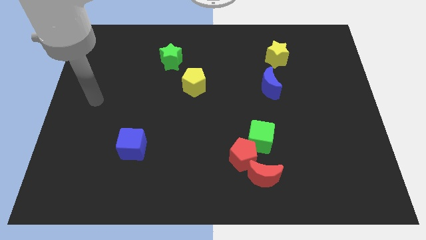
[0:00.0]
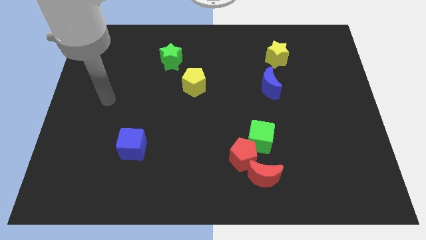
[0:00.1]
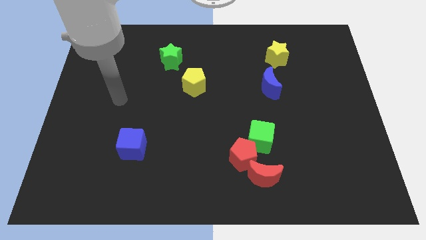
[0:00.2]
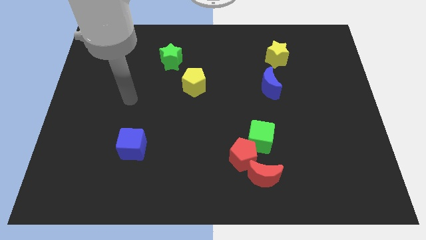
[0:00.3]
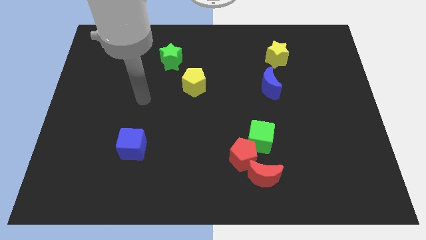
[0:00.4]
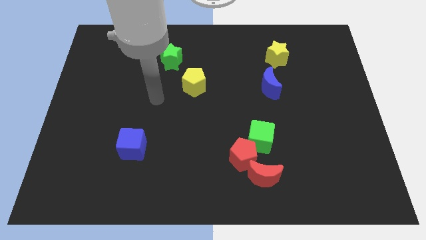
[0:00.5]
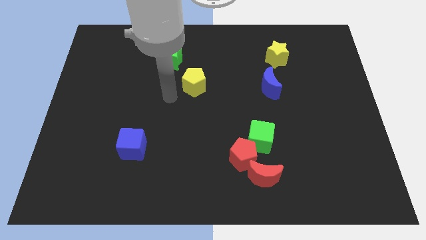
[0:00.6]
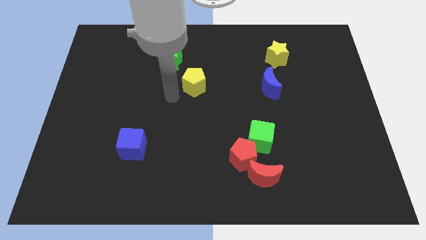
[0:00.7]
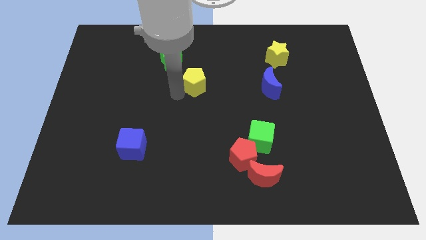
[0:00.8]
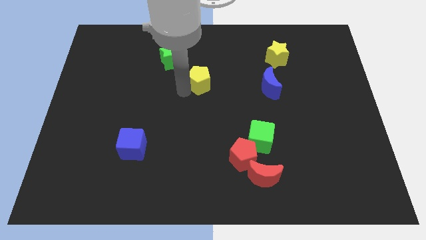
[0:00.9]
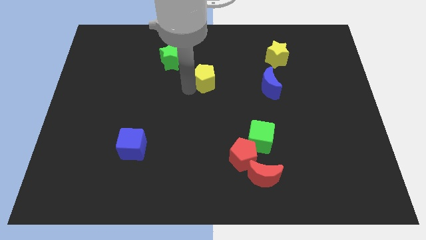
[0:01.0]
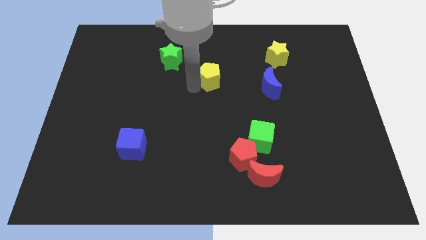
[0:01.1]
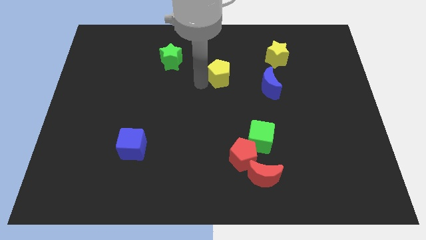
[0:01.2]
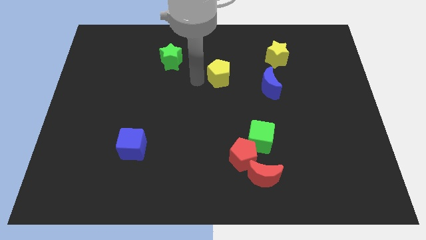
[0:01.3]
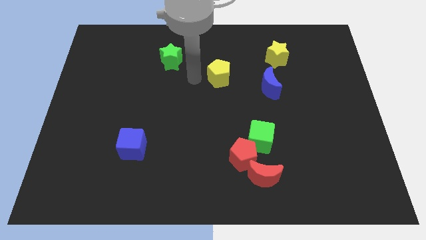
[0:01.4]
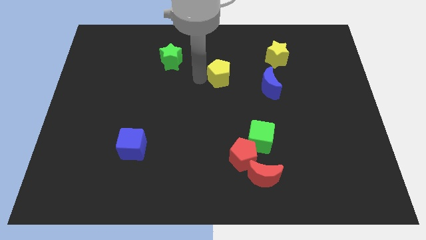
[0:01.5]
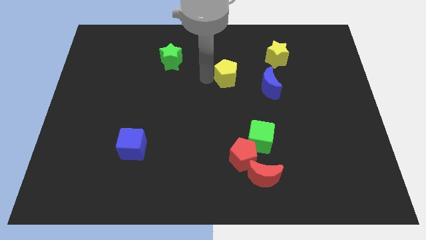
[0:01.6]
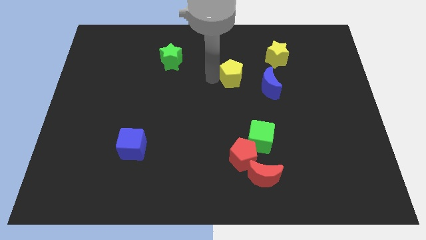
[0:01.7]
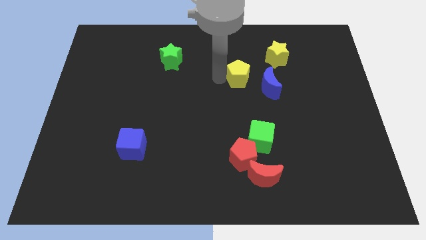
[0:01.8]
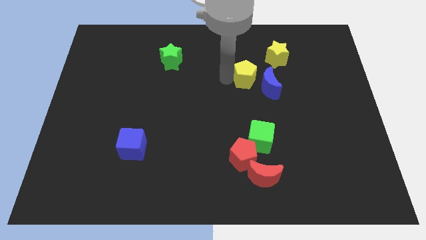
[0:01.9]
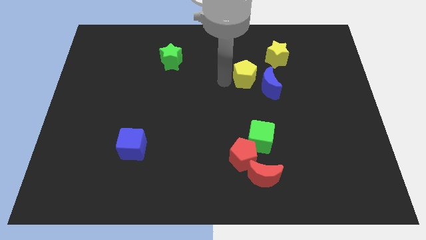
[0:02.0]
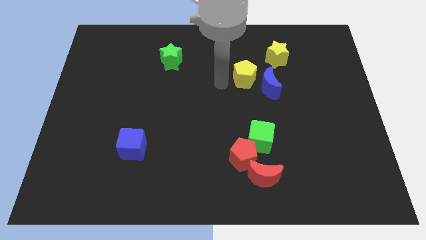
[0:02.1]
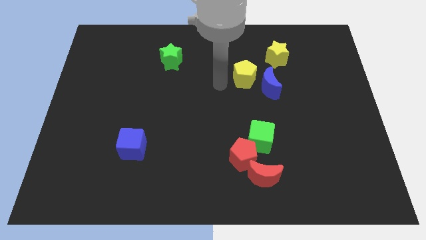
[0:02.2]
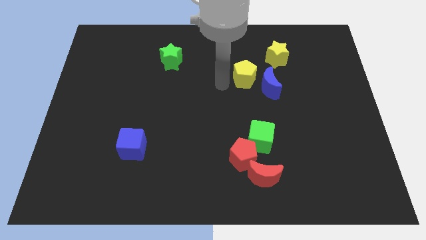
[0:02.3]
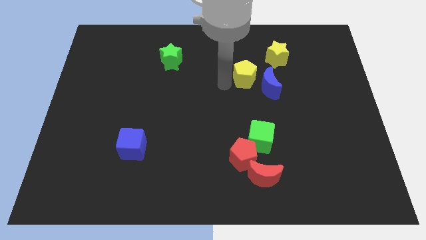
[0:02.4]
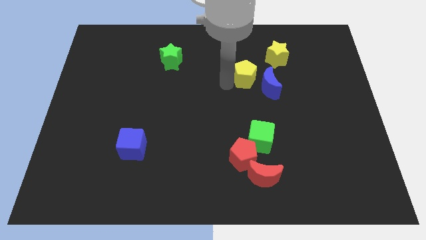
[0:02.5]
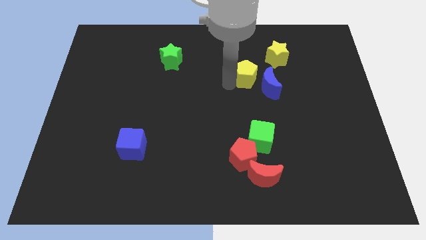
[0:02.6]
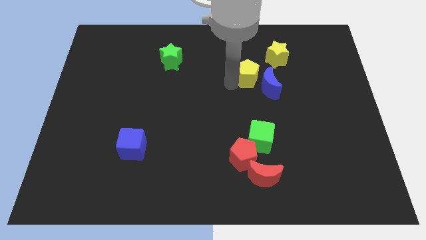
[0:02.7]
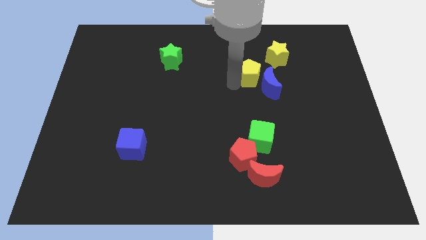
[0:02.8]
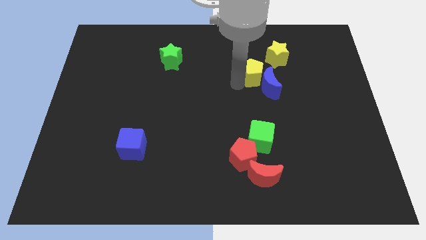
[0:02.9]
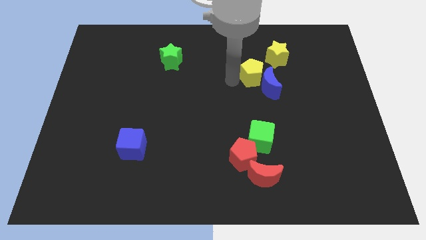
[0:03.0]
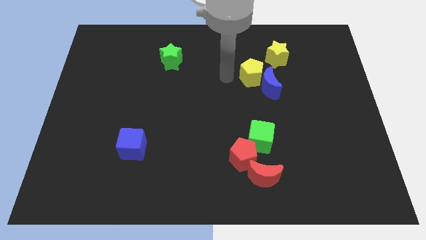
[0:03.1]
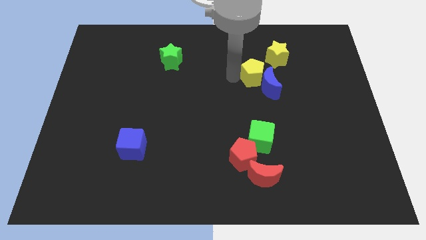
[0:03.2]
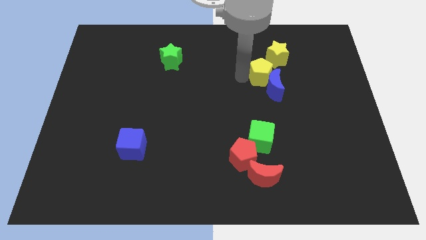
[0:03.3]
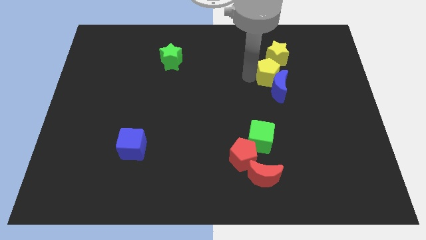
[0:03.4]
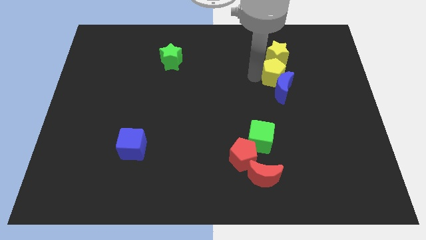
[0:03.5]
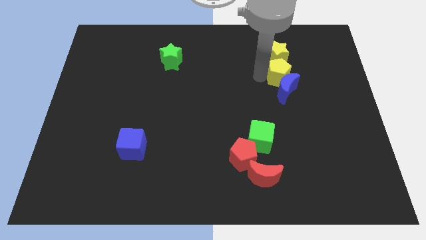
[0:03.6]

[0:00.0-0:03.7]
move the yellow pentagon right

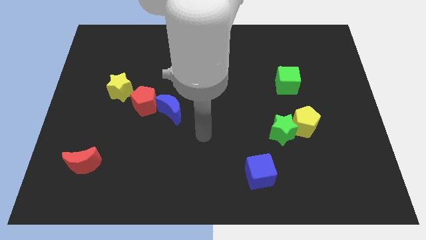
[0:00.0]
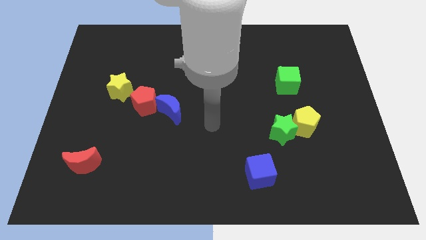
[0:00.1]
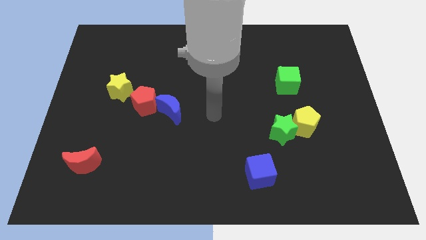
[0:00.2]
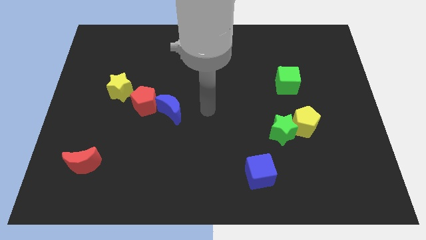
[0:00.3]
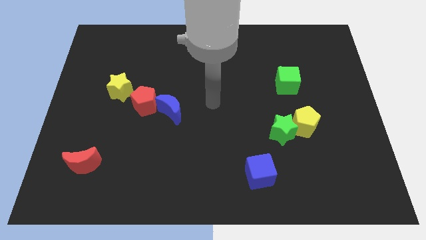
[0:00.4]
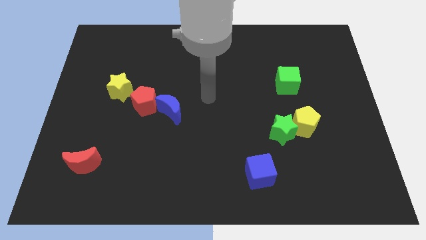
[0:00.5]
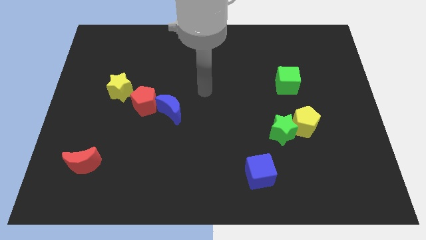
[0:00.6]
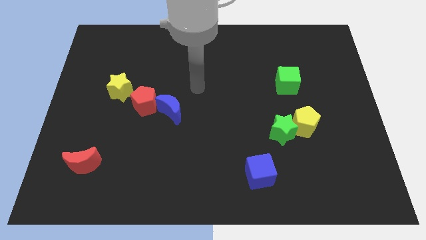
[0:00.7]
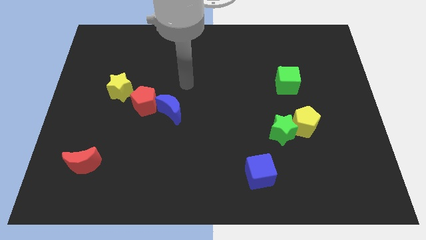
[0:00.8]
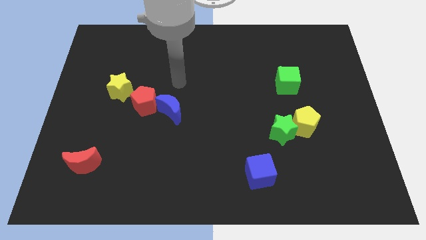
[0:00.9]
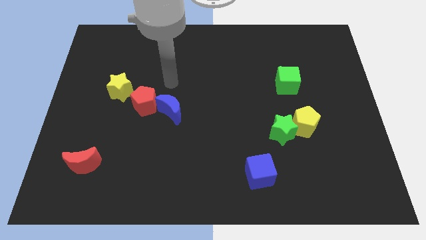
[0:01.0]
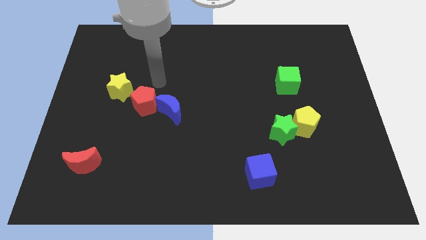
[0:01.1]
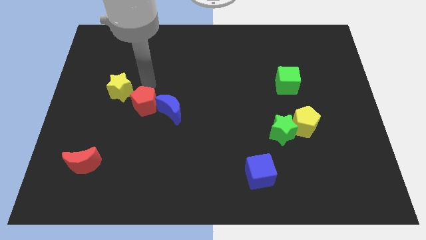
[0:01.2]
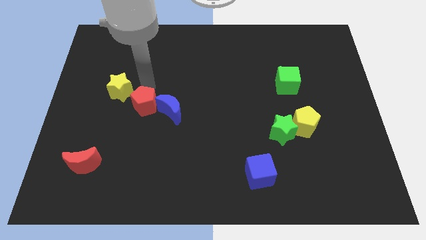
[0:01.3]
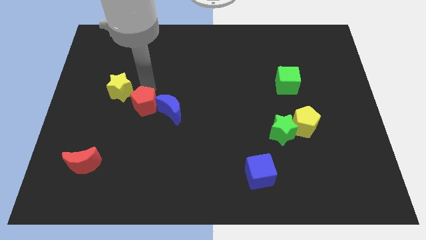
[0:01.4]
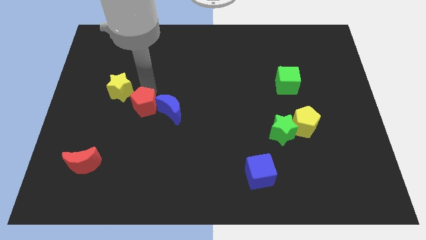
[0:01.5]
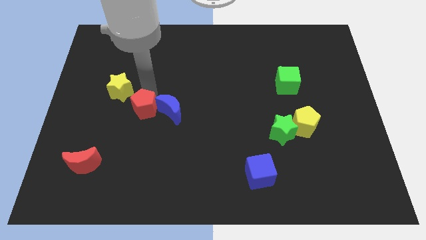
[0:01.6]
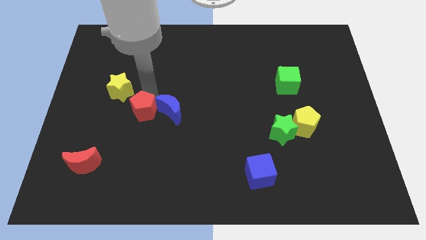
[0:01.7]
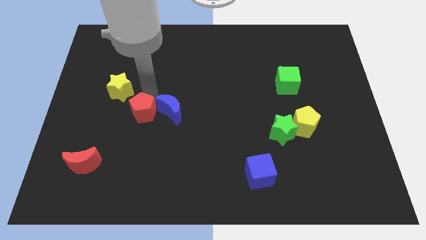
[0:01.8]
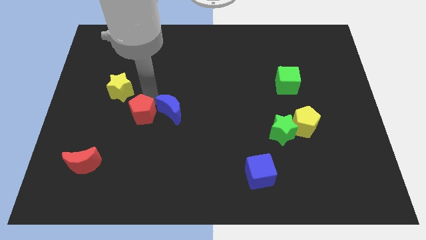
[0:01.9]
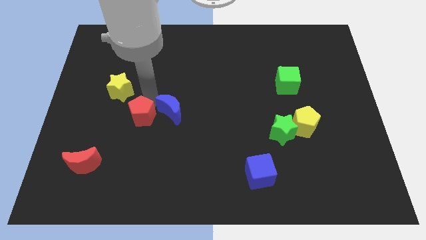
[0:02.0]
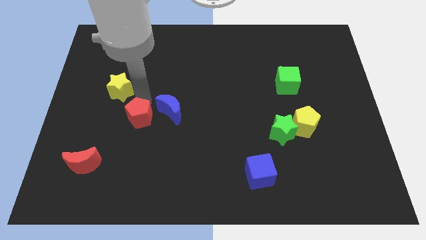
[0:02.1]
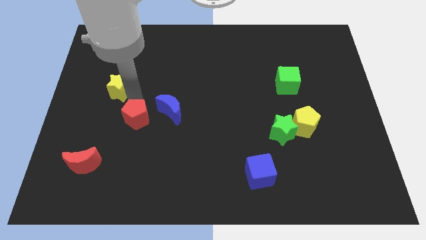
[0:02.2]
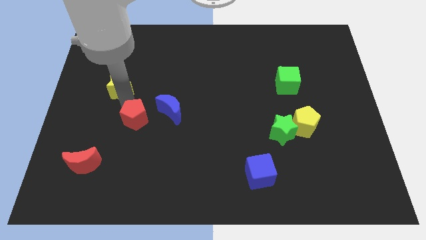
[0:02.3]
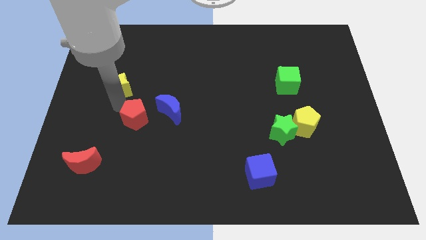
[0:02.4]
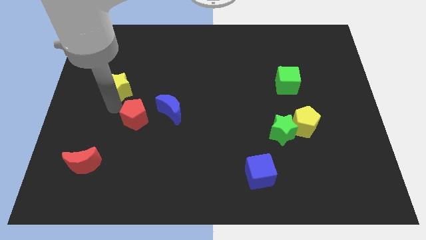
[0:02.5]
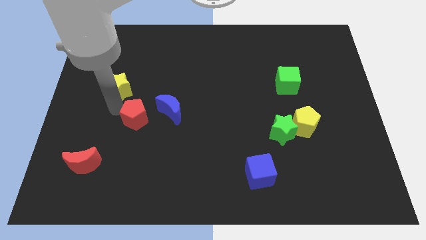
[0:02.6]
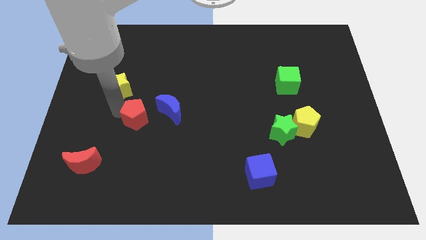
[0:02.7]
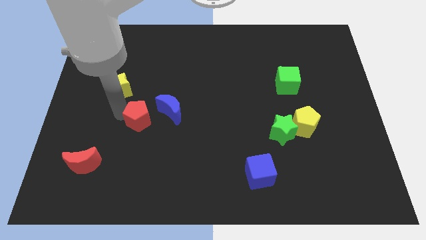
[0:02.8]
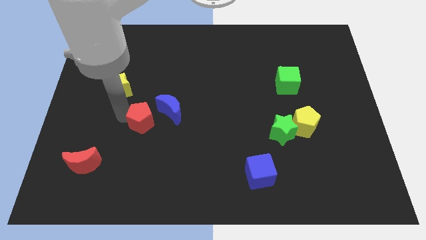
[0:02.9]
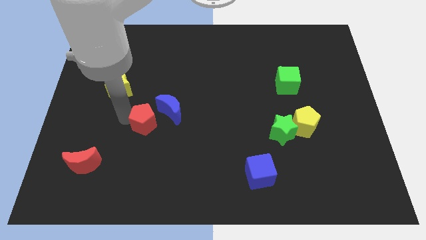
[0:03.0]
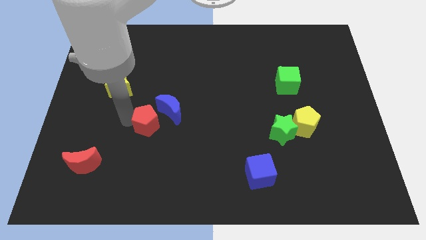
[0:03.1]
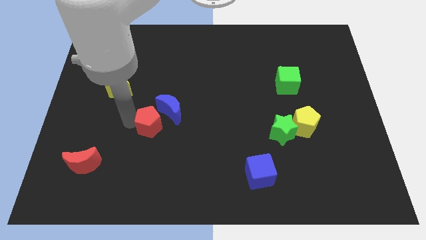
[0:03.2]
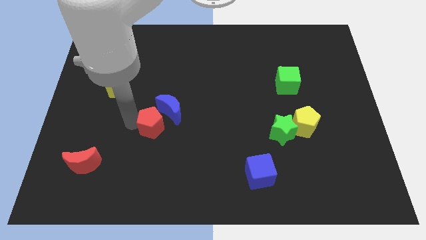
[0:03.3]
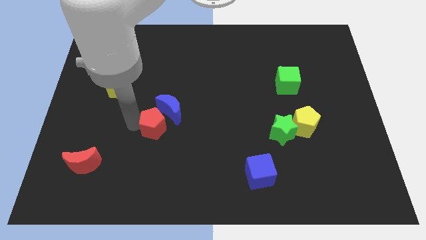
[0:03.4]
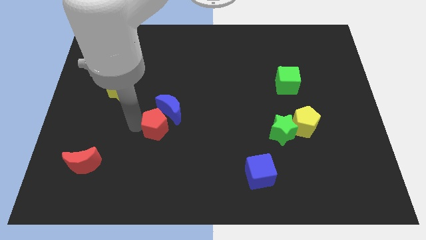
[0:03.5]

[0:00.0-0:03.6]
move the red pentagon a little bit downwards and to the right

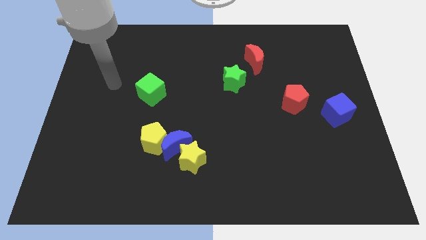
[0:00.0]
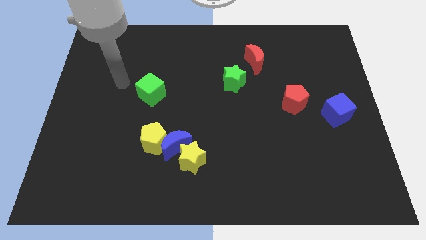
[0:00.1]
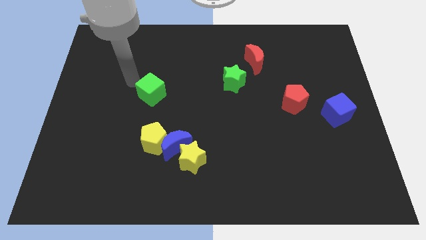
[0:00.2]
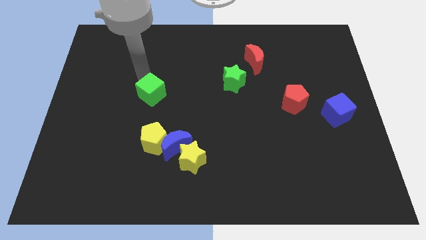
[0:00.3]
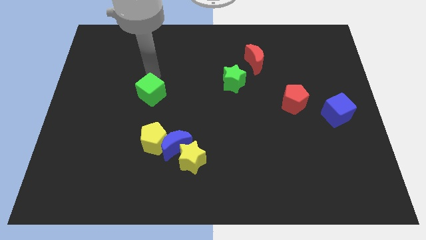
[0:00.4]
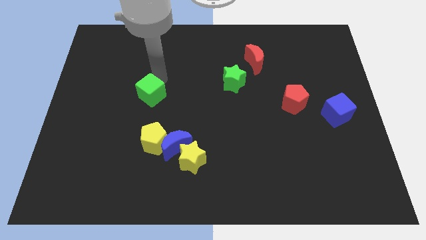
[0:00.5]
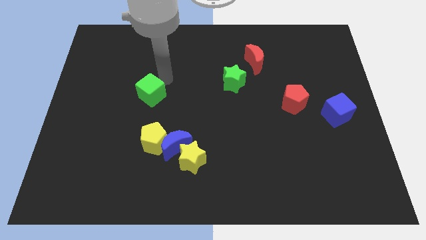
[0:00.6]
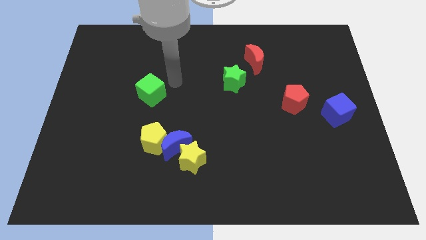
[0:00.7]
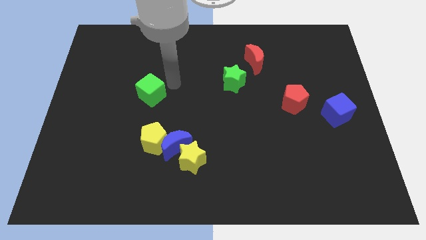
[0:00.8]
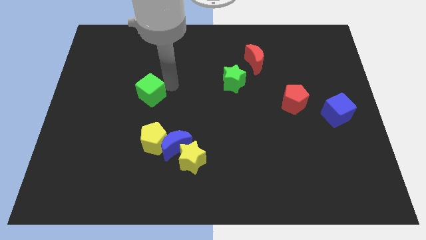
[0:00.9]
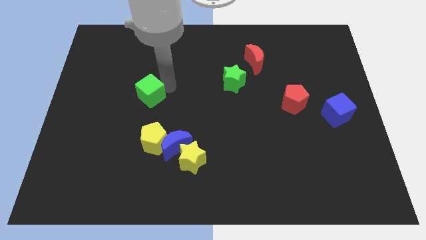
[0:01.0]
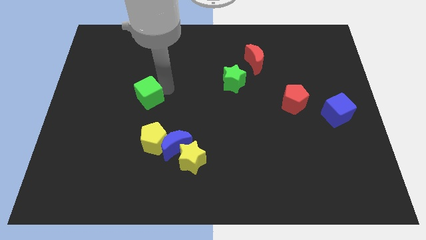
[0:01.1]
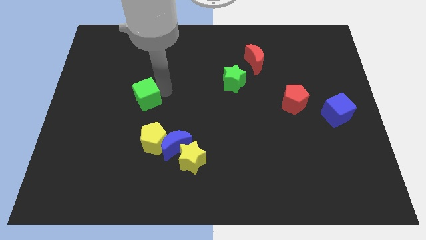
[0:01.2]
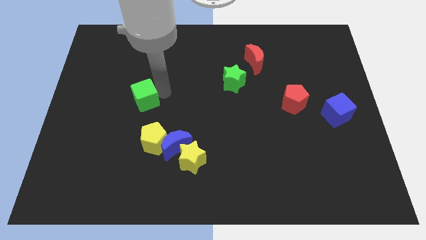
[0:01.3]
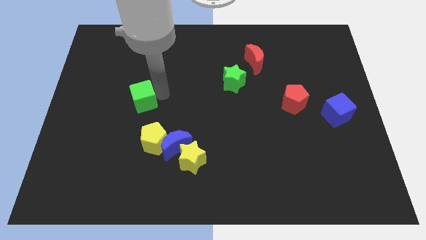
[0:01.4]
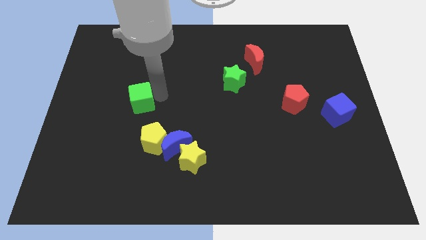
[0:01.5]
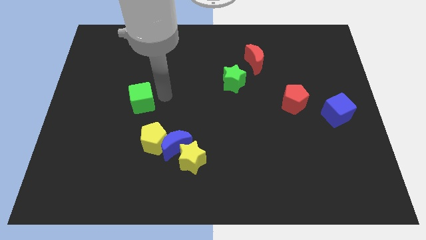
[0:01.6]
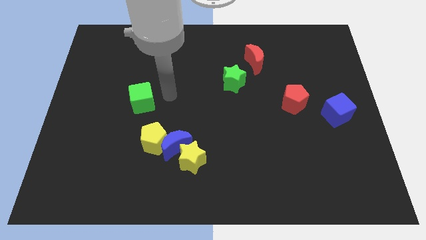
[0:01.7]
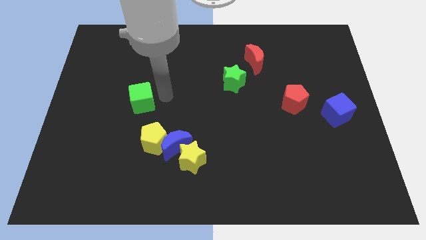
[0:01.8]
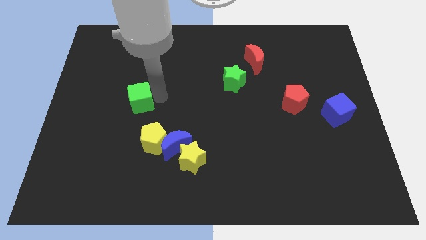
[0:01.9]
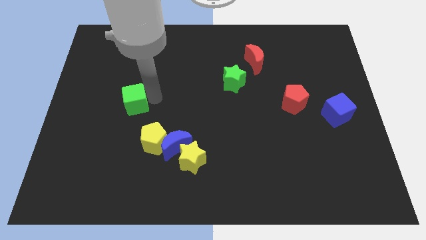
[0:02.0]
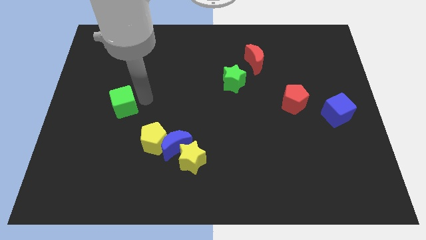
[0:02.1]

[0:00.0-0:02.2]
move the green cube downwards and then left a bit
